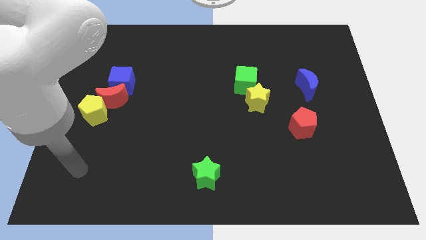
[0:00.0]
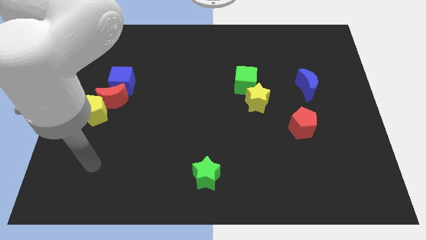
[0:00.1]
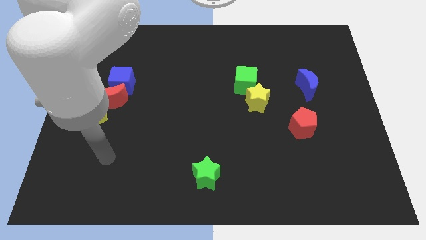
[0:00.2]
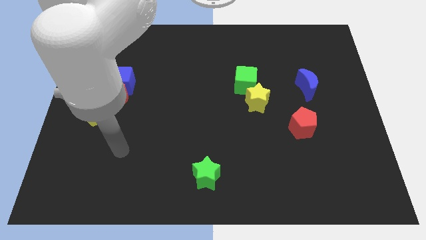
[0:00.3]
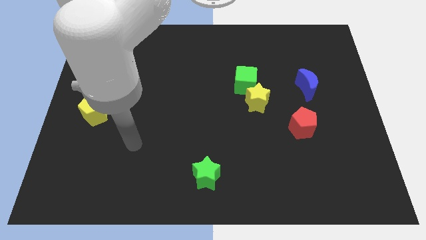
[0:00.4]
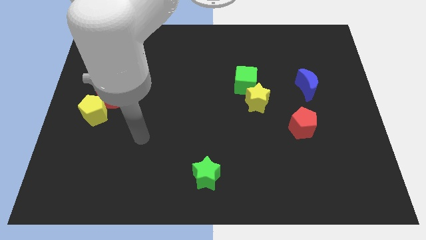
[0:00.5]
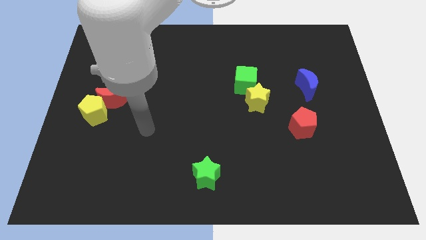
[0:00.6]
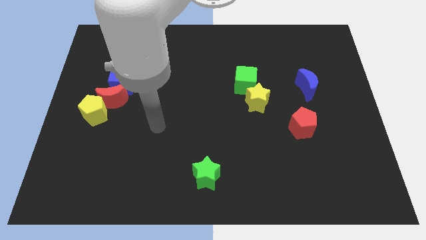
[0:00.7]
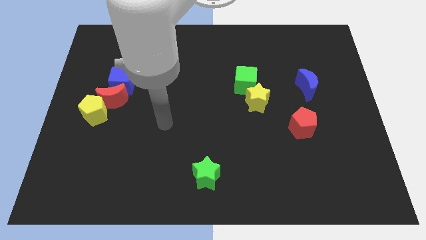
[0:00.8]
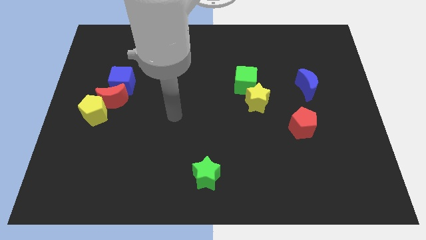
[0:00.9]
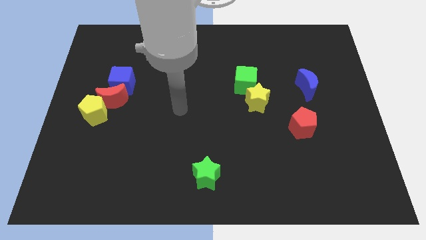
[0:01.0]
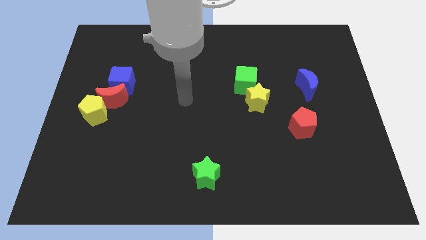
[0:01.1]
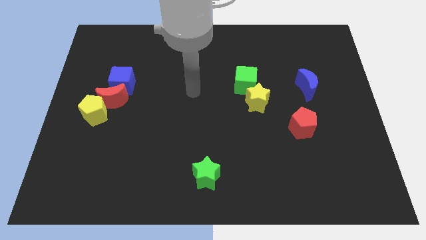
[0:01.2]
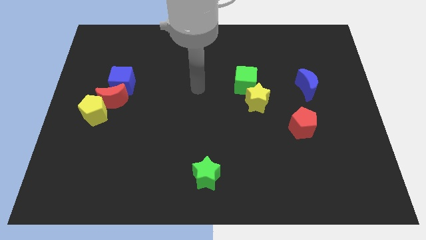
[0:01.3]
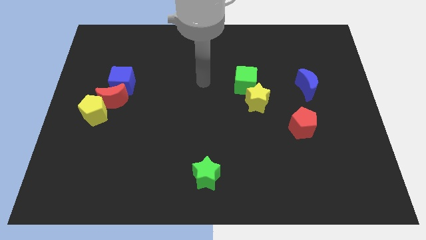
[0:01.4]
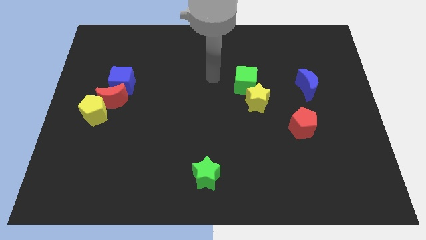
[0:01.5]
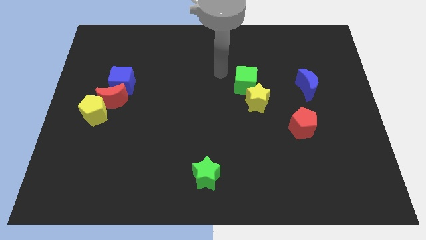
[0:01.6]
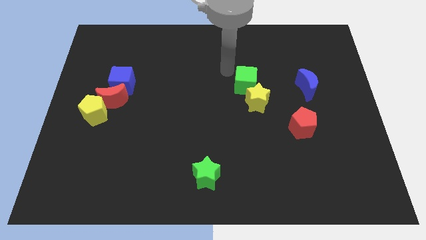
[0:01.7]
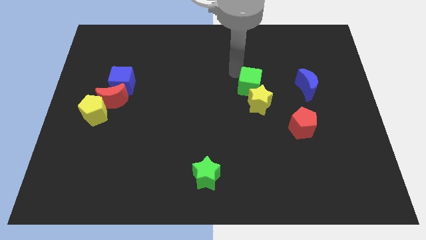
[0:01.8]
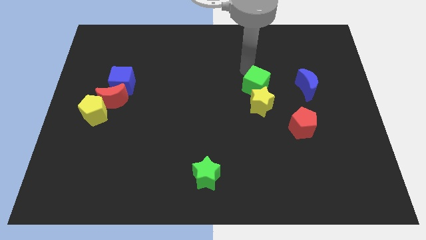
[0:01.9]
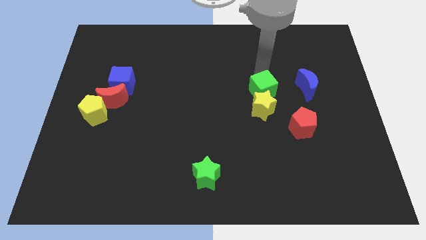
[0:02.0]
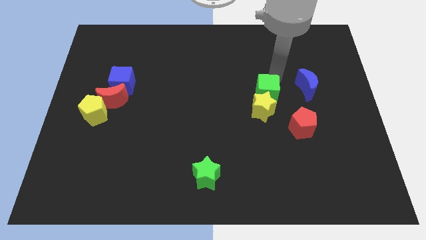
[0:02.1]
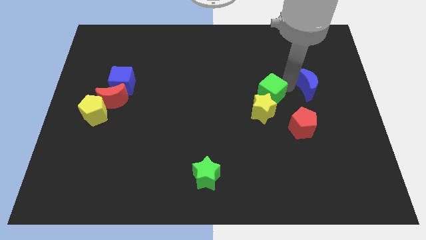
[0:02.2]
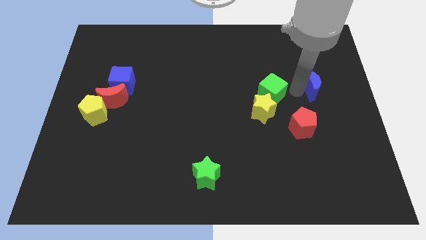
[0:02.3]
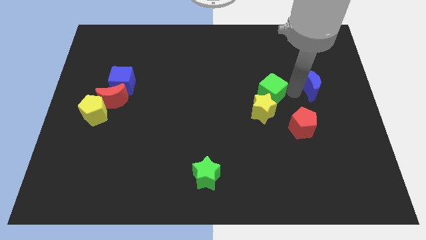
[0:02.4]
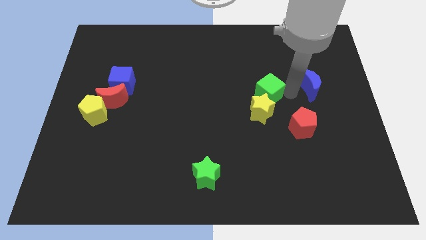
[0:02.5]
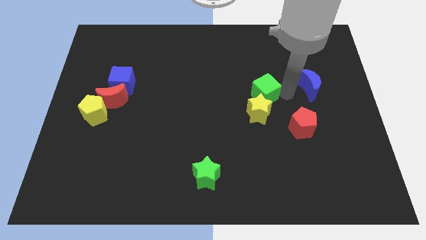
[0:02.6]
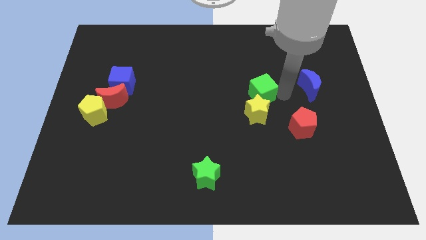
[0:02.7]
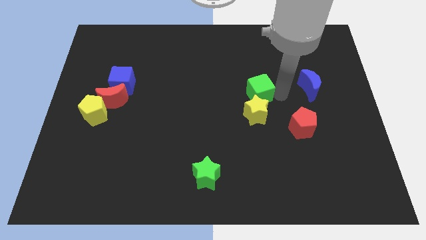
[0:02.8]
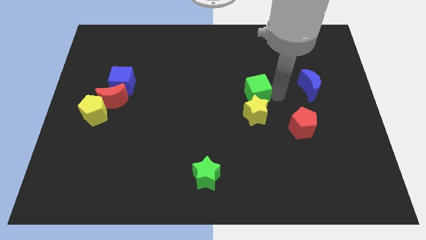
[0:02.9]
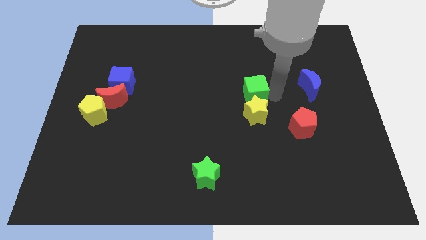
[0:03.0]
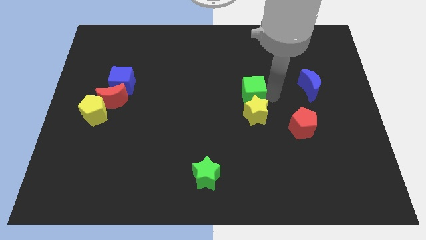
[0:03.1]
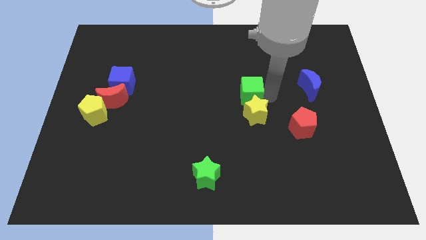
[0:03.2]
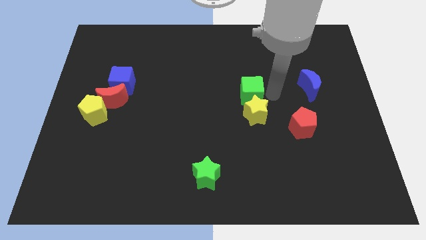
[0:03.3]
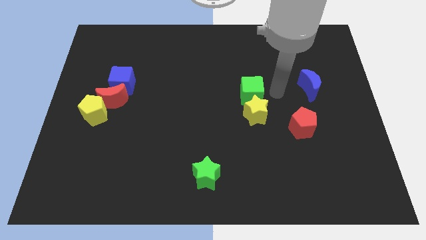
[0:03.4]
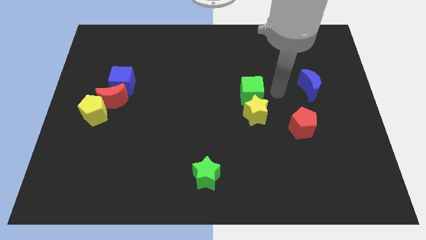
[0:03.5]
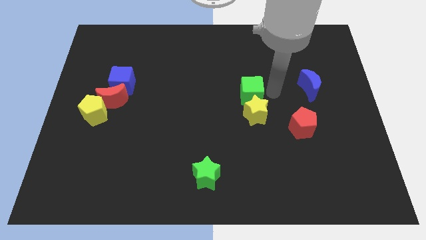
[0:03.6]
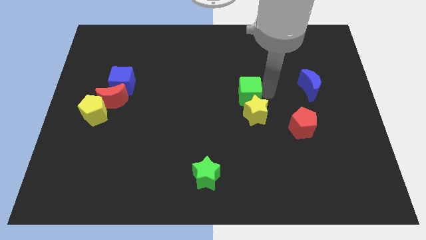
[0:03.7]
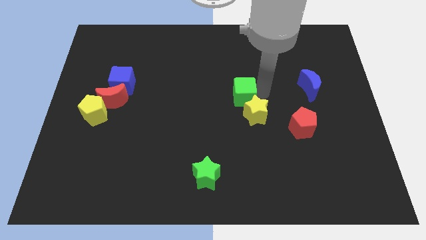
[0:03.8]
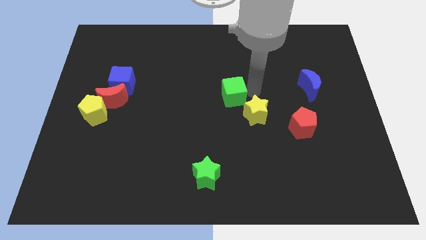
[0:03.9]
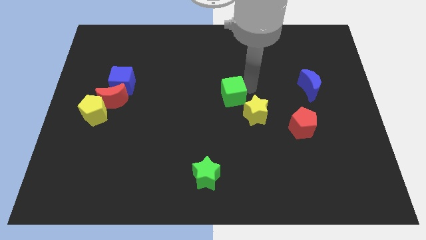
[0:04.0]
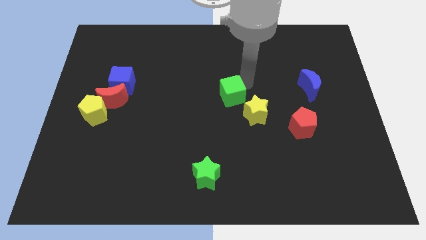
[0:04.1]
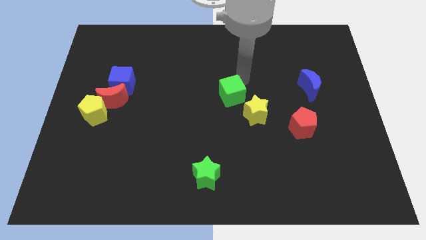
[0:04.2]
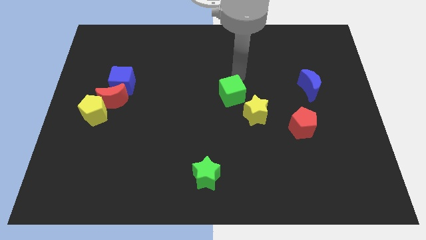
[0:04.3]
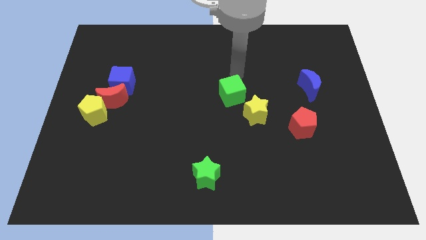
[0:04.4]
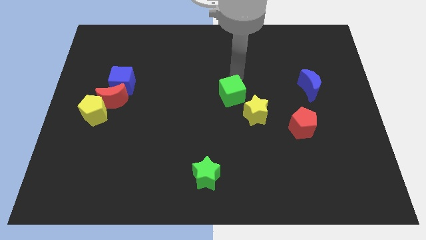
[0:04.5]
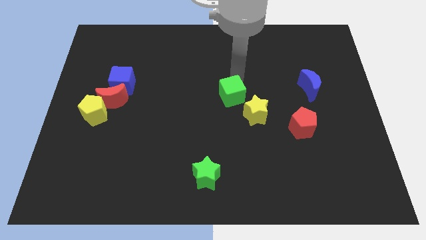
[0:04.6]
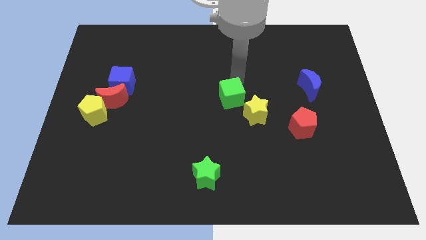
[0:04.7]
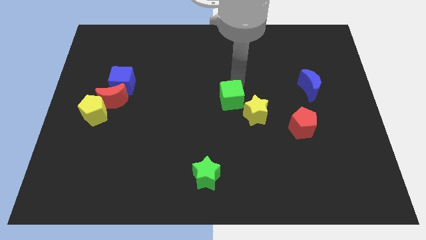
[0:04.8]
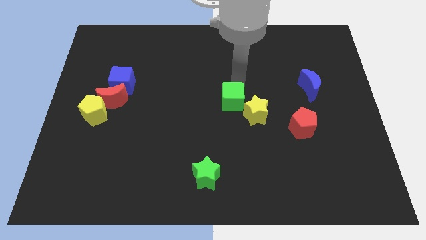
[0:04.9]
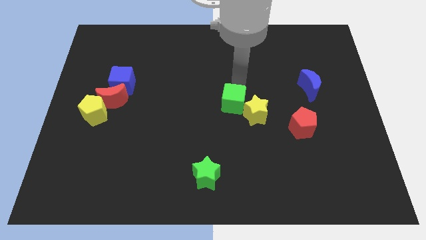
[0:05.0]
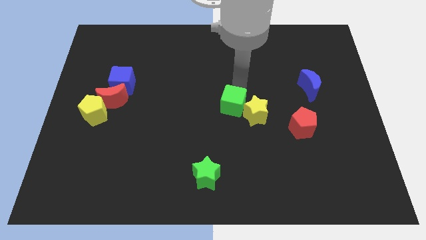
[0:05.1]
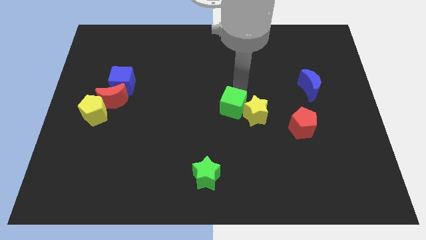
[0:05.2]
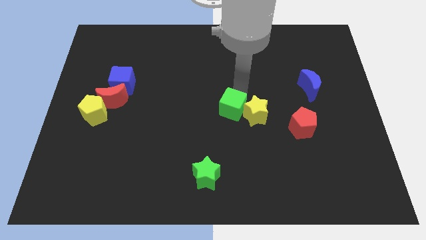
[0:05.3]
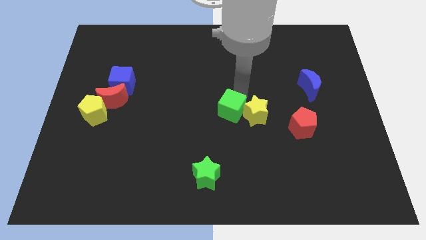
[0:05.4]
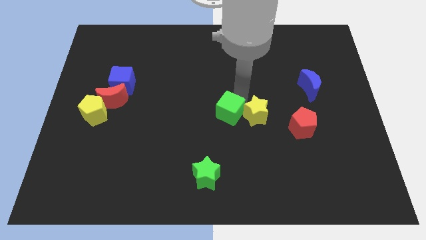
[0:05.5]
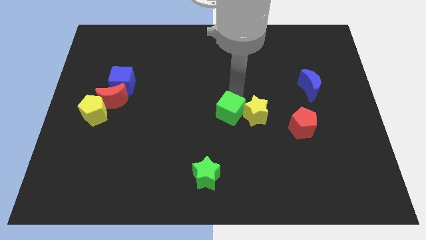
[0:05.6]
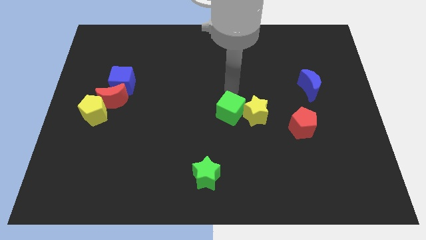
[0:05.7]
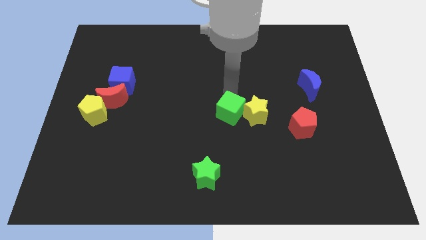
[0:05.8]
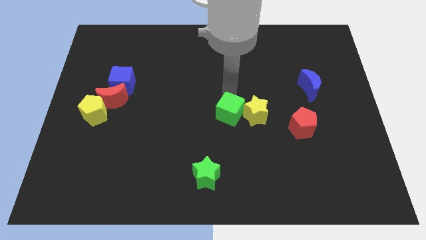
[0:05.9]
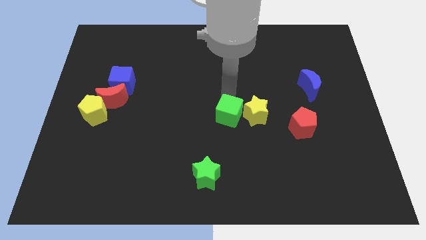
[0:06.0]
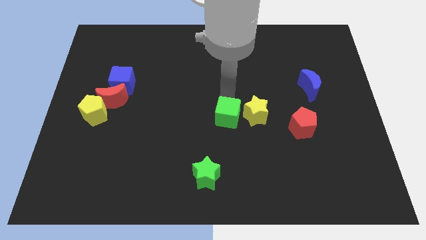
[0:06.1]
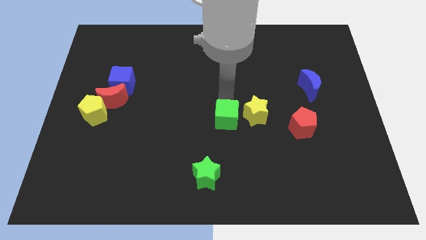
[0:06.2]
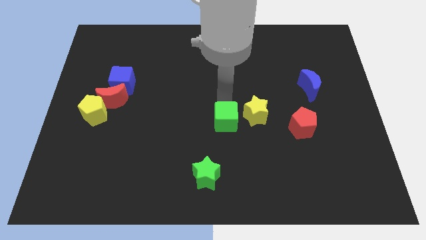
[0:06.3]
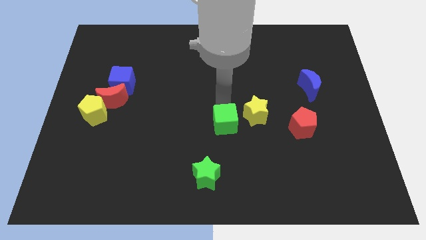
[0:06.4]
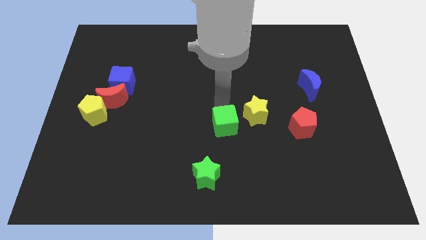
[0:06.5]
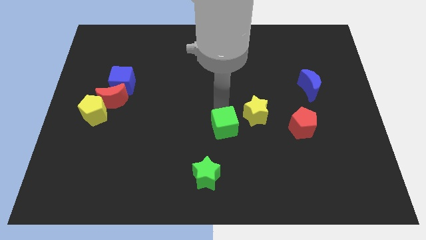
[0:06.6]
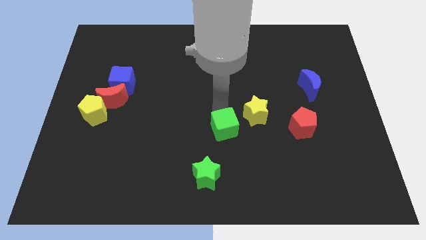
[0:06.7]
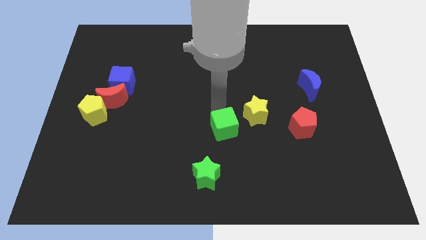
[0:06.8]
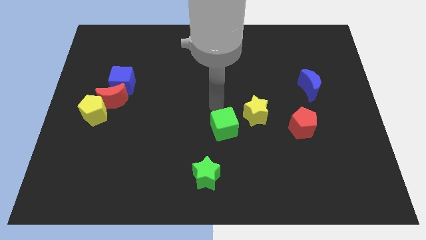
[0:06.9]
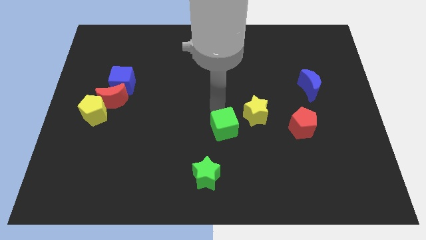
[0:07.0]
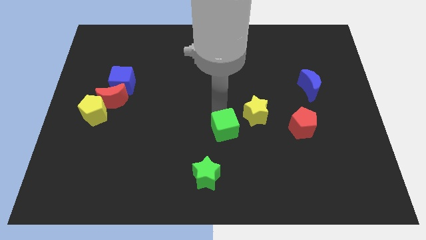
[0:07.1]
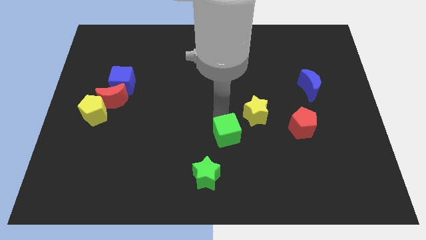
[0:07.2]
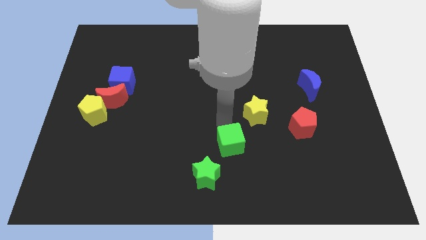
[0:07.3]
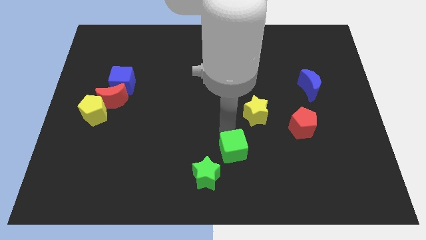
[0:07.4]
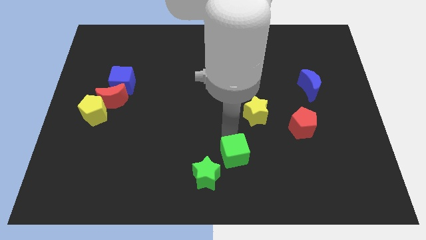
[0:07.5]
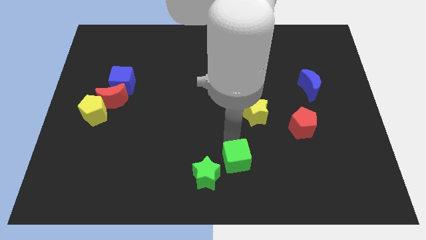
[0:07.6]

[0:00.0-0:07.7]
push the green cube to the bottom side
